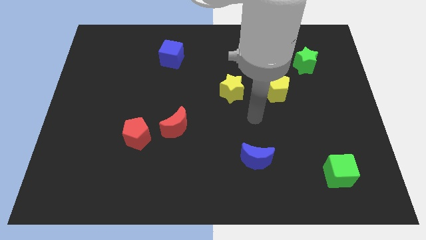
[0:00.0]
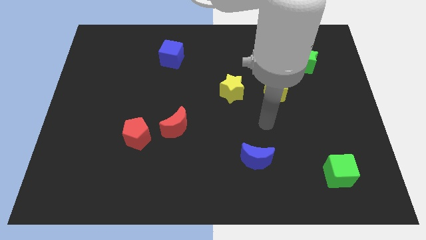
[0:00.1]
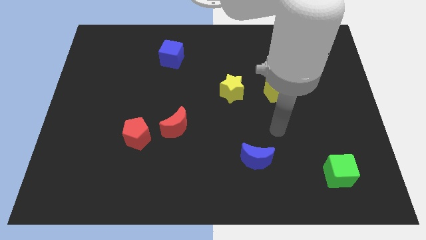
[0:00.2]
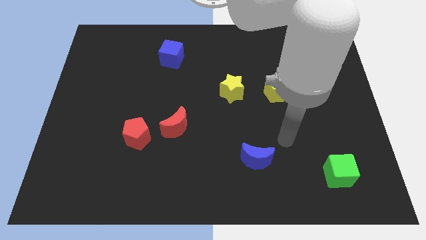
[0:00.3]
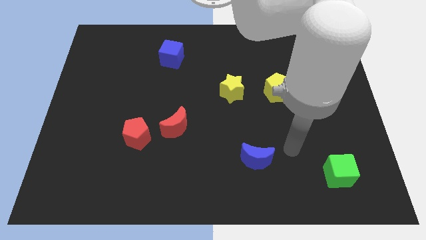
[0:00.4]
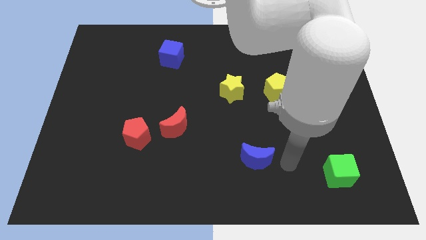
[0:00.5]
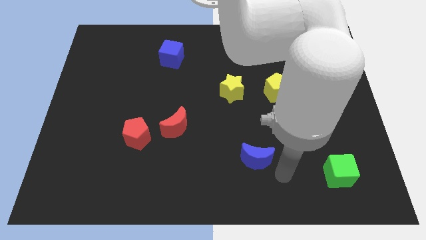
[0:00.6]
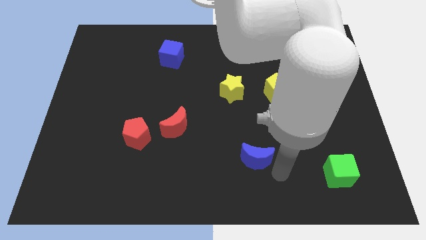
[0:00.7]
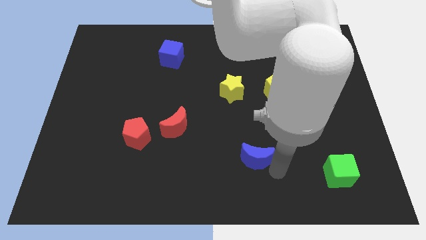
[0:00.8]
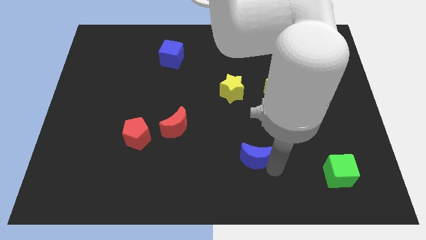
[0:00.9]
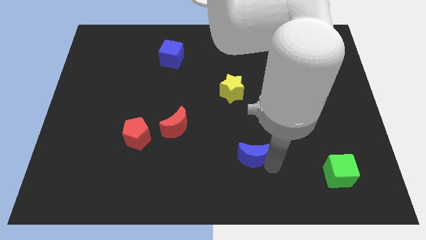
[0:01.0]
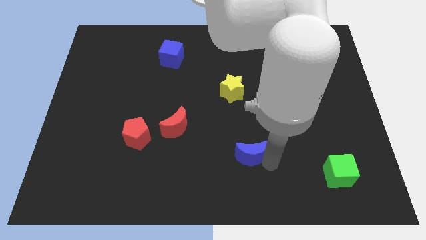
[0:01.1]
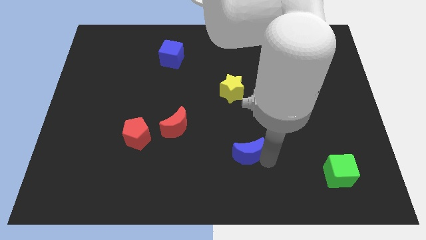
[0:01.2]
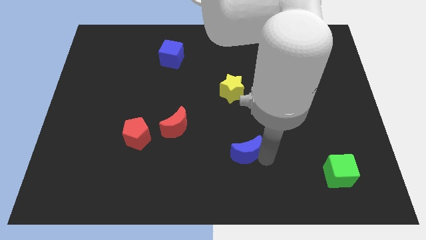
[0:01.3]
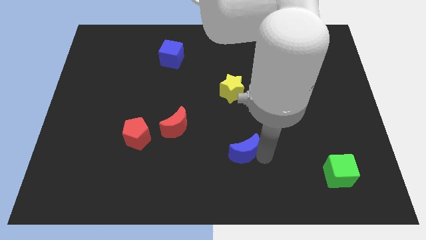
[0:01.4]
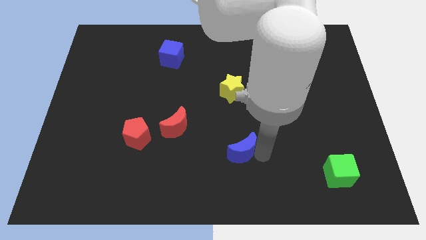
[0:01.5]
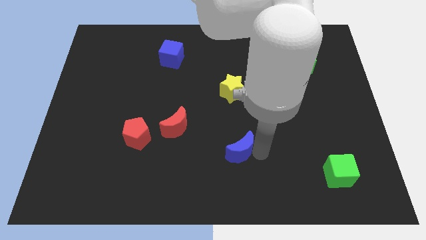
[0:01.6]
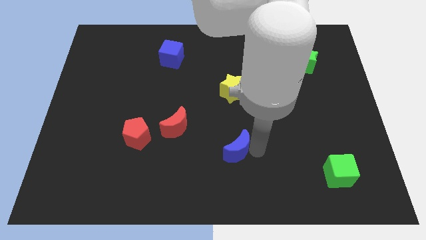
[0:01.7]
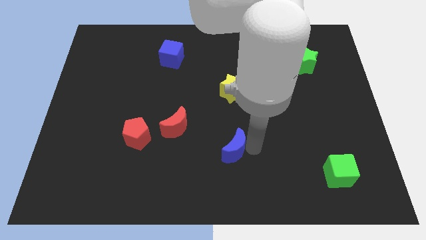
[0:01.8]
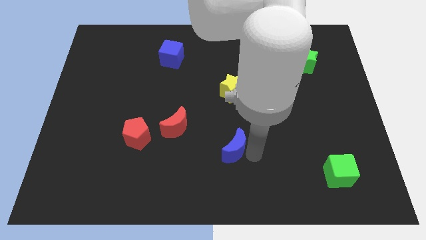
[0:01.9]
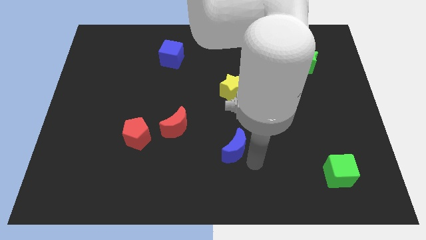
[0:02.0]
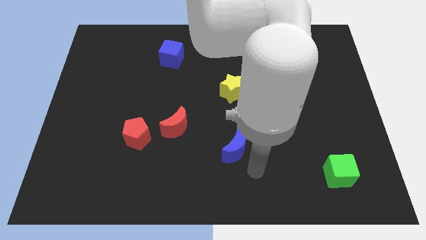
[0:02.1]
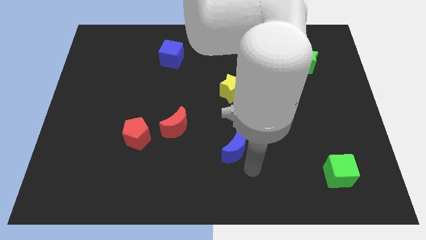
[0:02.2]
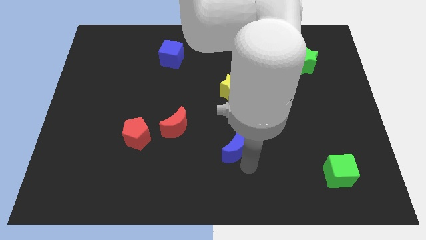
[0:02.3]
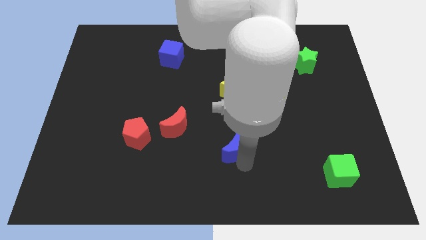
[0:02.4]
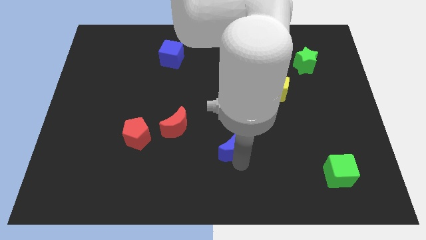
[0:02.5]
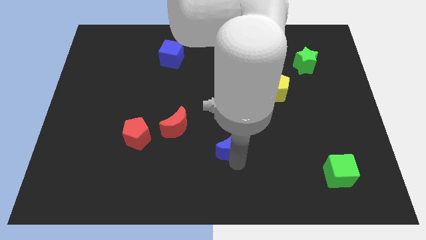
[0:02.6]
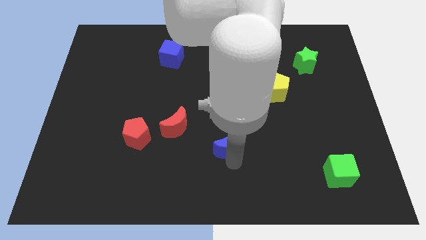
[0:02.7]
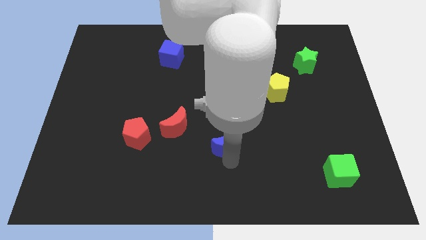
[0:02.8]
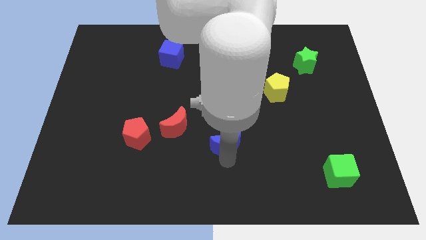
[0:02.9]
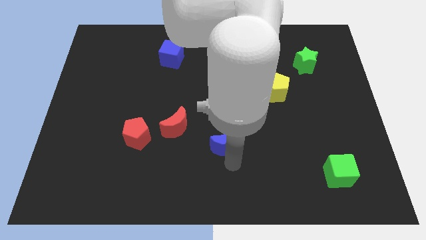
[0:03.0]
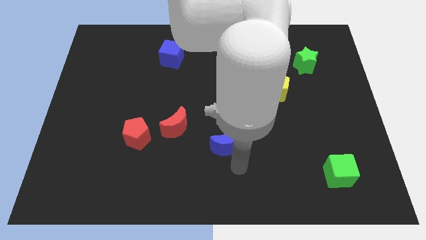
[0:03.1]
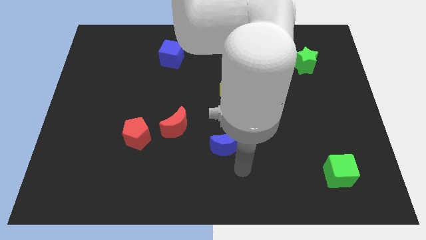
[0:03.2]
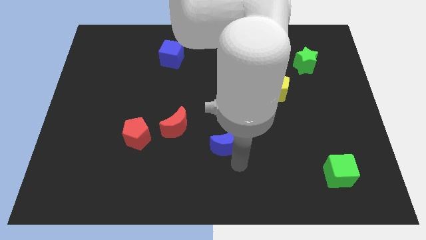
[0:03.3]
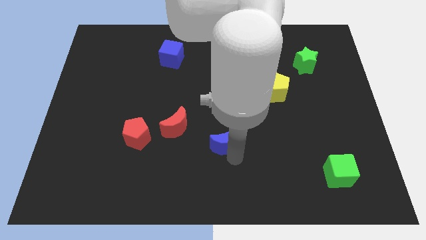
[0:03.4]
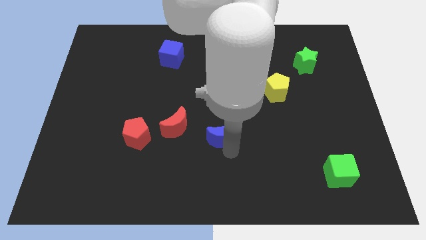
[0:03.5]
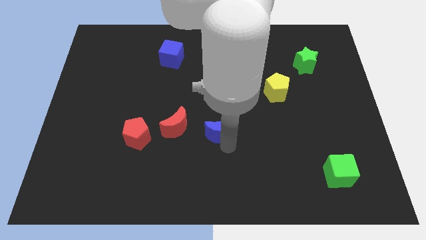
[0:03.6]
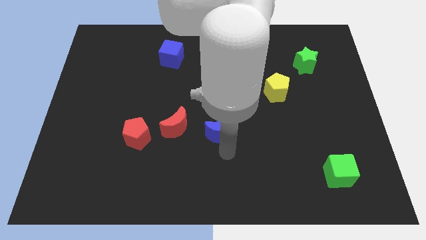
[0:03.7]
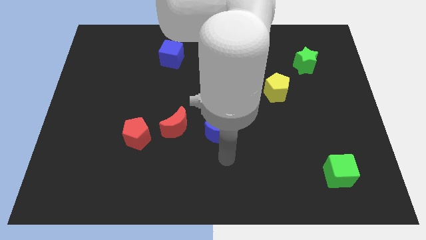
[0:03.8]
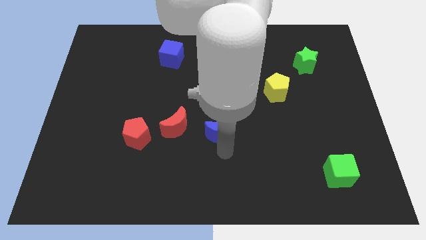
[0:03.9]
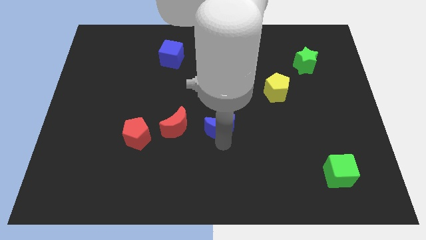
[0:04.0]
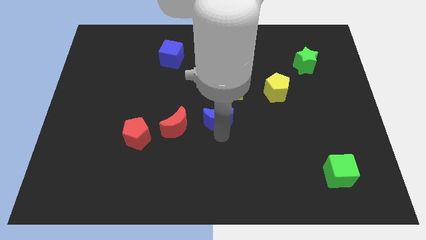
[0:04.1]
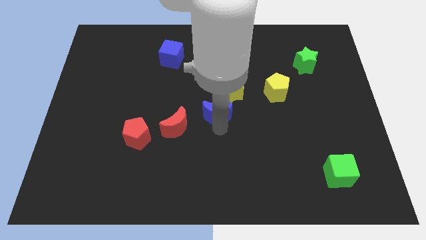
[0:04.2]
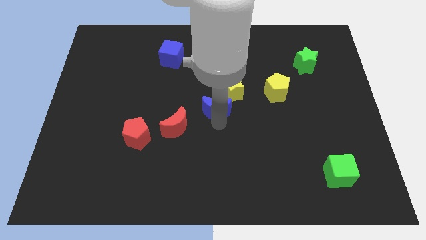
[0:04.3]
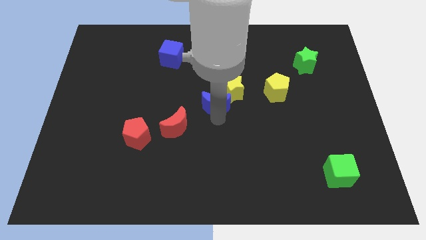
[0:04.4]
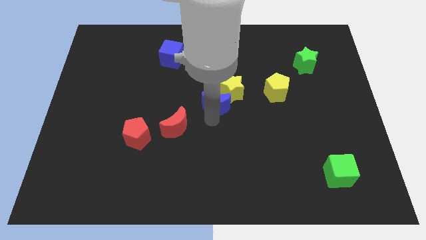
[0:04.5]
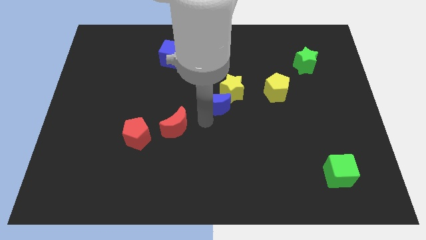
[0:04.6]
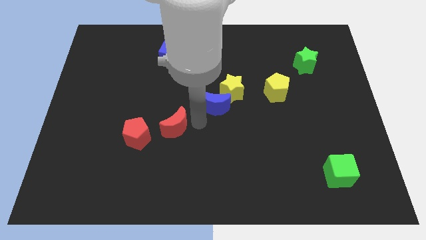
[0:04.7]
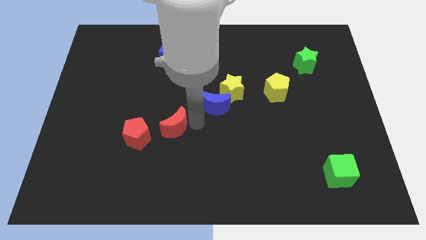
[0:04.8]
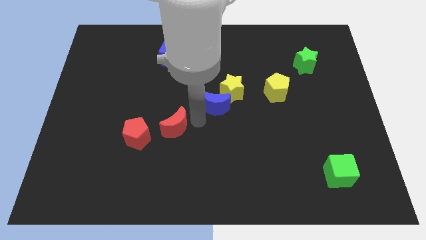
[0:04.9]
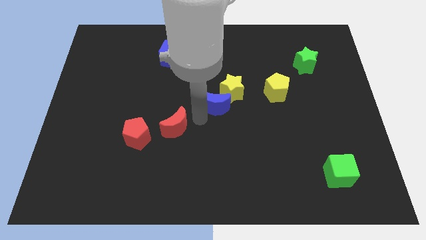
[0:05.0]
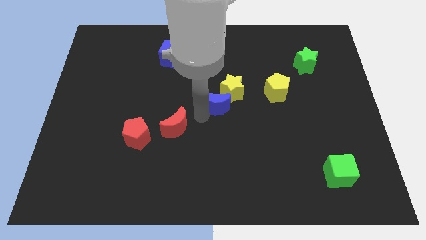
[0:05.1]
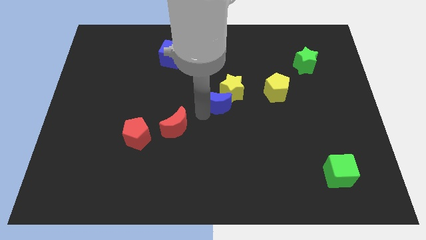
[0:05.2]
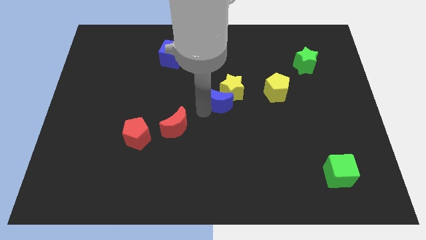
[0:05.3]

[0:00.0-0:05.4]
move the blue moon to the left of the yellow pentagon

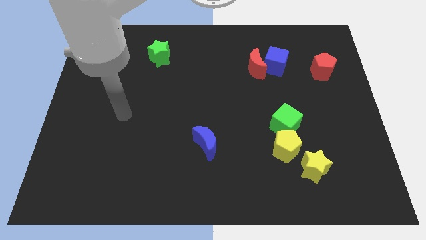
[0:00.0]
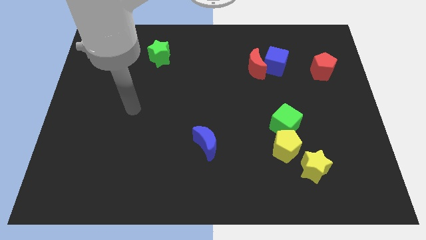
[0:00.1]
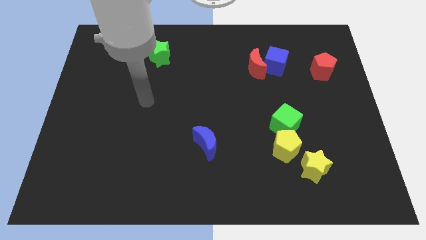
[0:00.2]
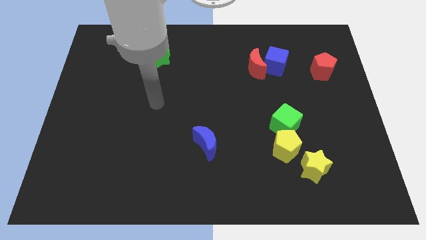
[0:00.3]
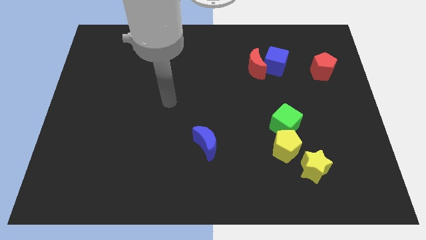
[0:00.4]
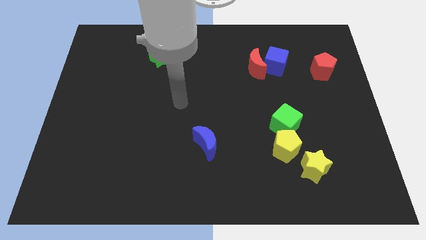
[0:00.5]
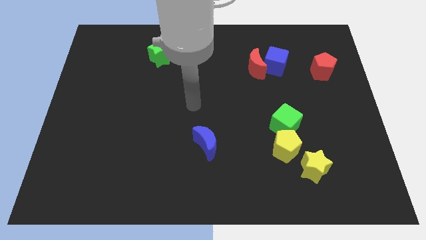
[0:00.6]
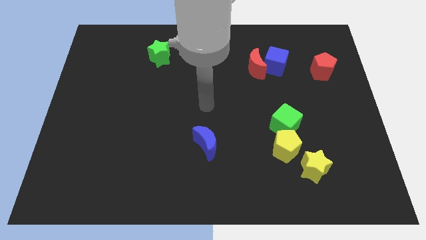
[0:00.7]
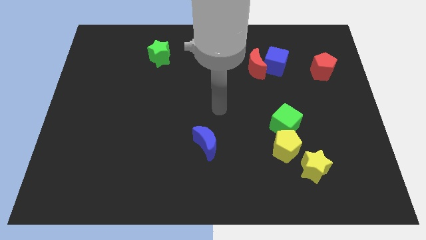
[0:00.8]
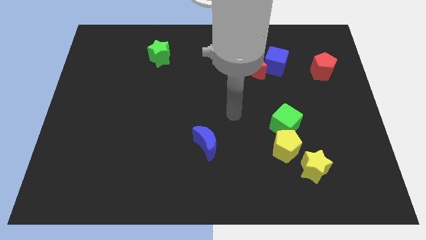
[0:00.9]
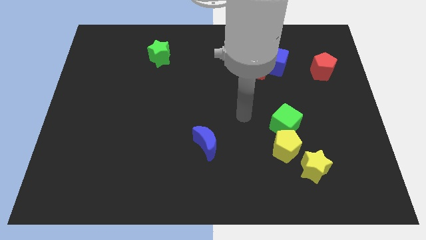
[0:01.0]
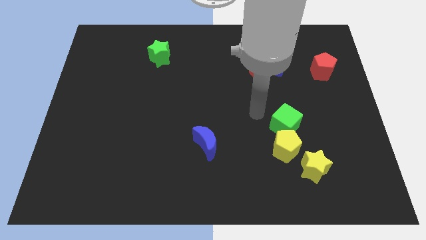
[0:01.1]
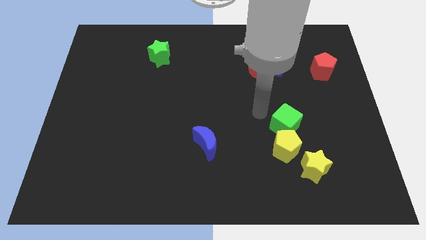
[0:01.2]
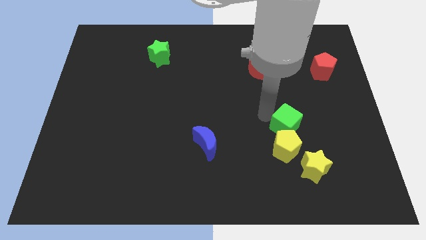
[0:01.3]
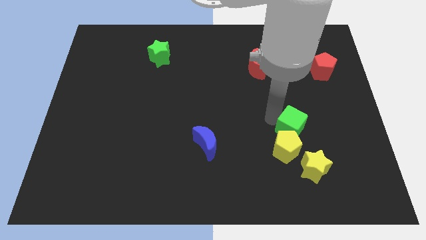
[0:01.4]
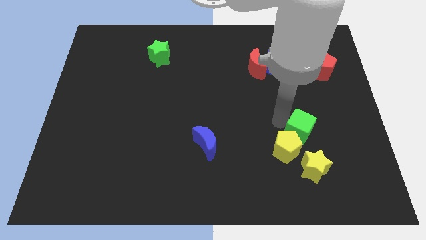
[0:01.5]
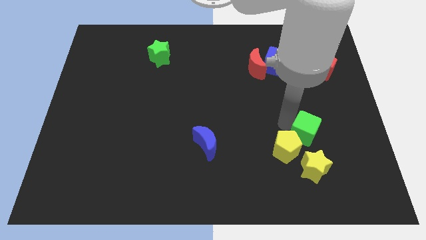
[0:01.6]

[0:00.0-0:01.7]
slide the green cube to the right of the yellow pentagon

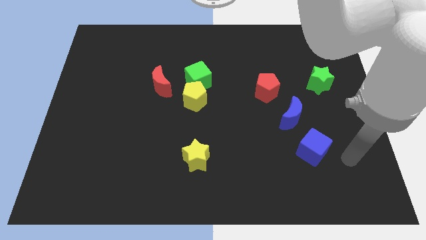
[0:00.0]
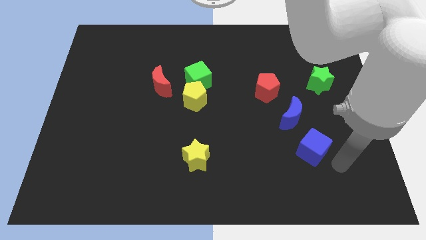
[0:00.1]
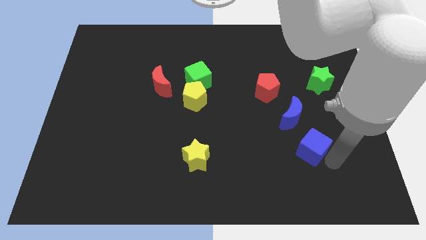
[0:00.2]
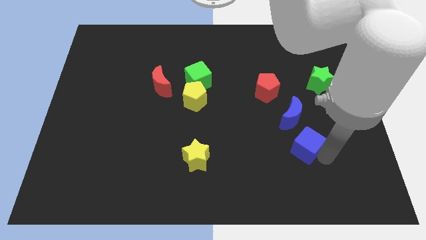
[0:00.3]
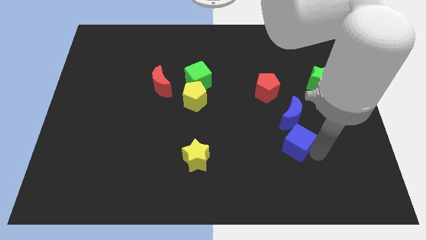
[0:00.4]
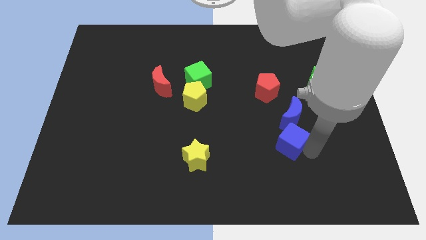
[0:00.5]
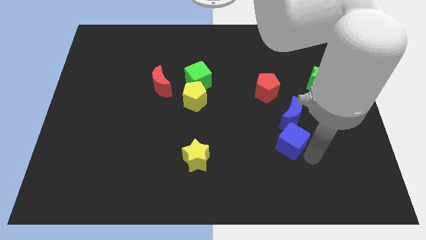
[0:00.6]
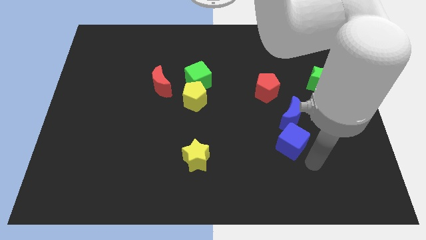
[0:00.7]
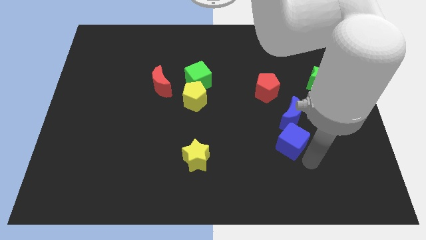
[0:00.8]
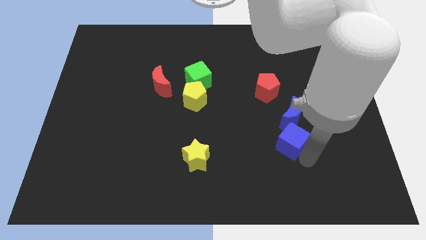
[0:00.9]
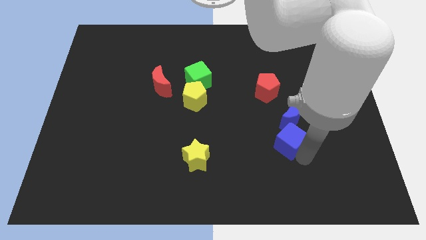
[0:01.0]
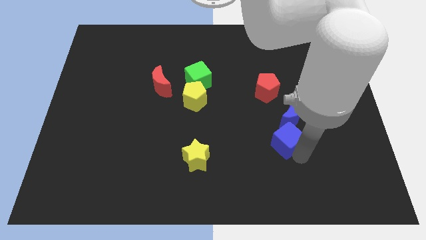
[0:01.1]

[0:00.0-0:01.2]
put the blue cube to the bottom of the red pentagon

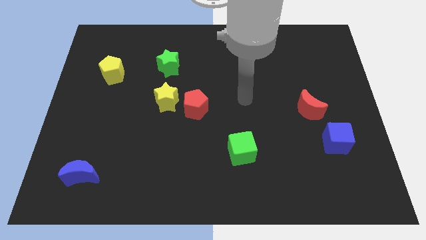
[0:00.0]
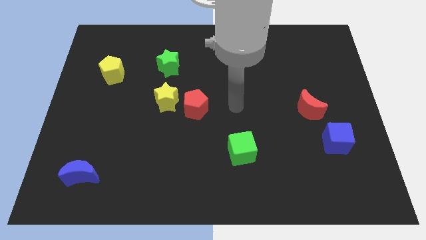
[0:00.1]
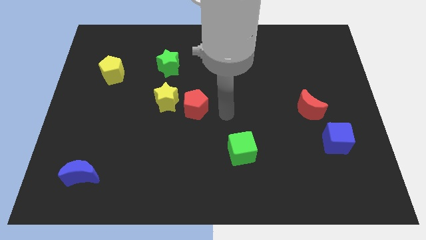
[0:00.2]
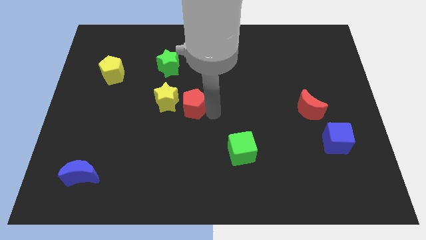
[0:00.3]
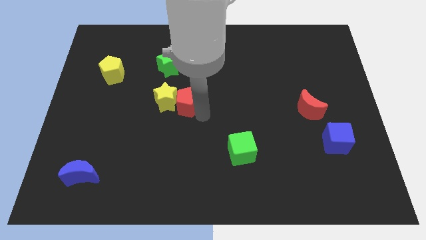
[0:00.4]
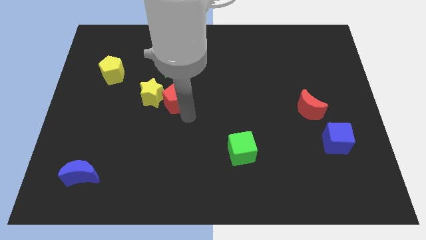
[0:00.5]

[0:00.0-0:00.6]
slide the yellow star diagonally down and to the left of the green star
